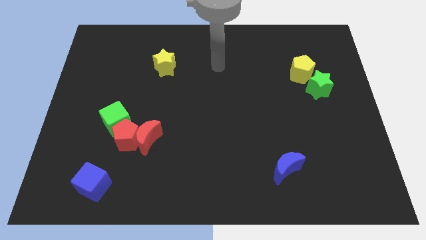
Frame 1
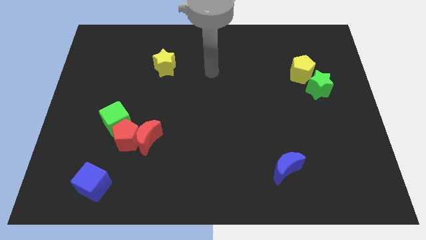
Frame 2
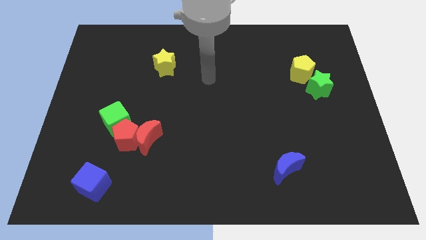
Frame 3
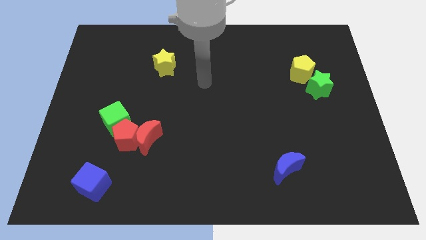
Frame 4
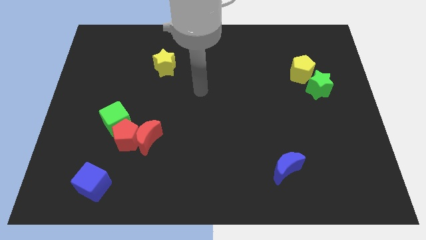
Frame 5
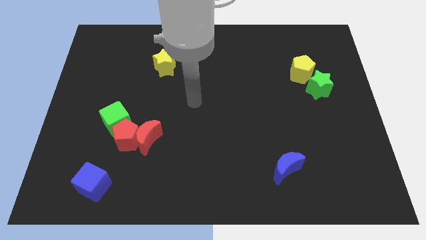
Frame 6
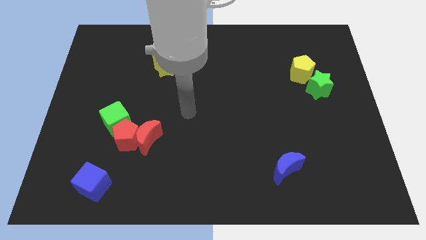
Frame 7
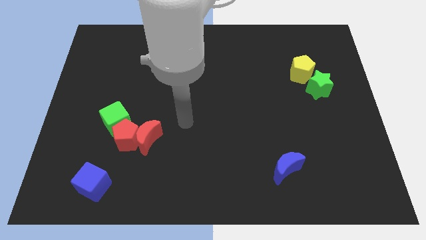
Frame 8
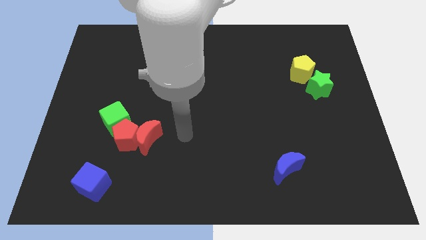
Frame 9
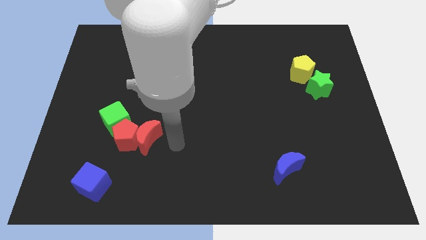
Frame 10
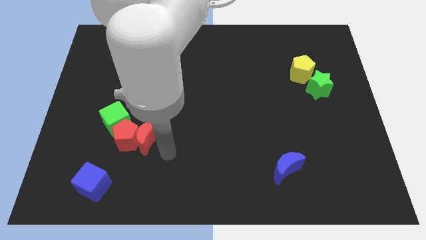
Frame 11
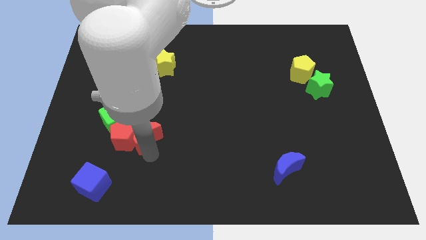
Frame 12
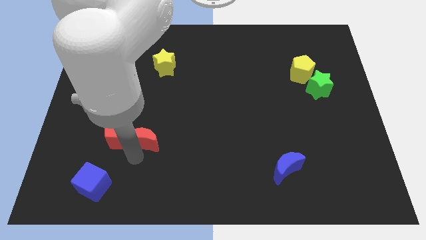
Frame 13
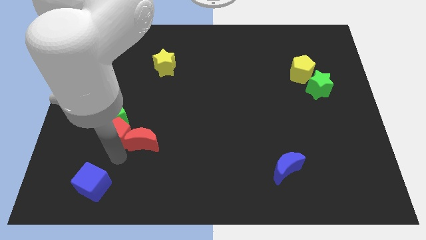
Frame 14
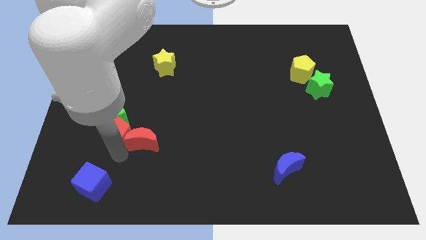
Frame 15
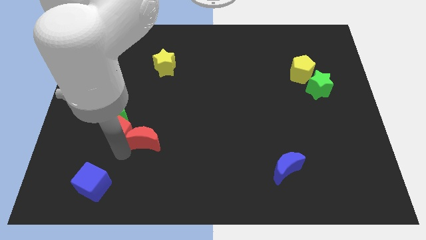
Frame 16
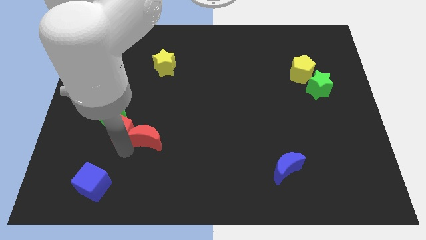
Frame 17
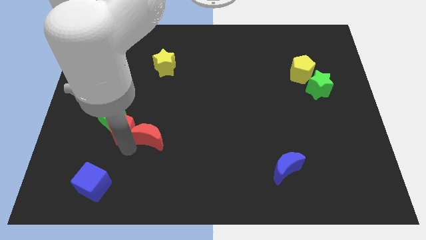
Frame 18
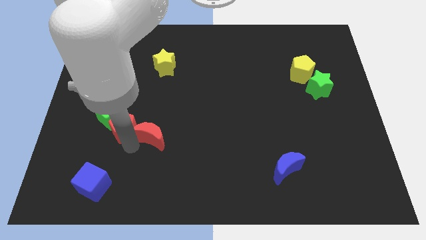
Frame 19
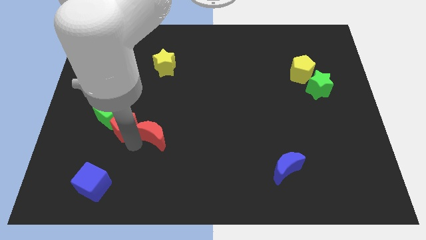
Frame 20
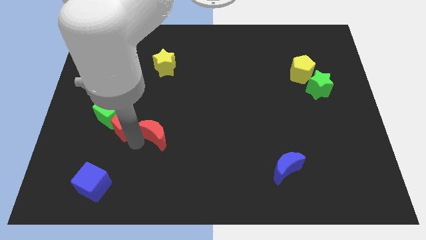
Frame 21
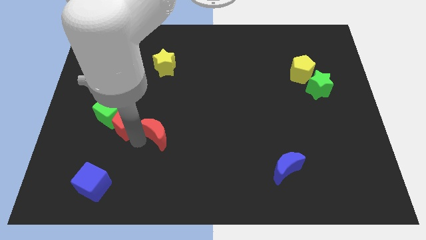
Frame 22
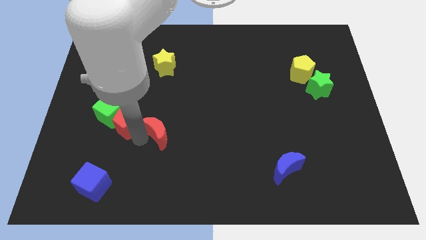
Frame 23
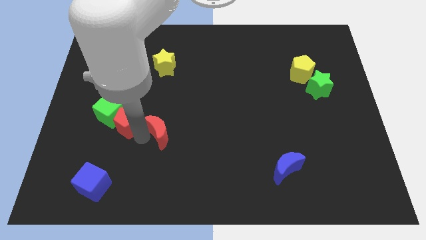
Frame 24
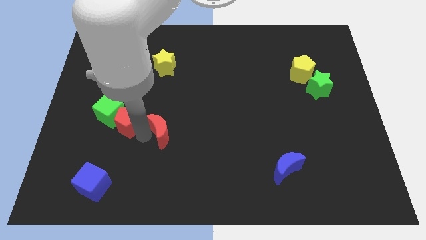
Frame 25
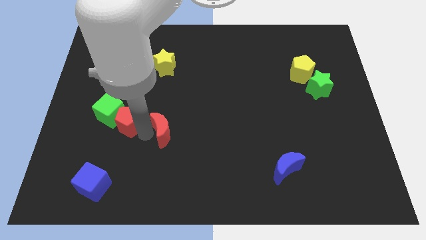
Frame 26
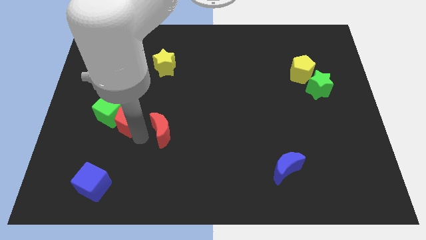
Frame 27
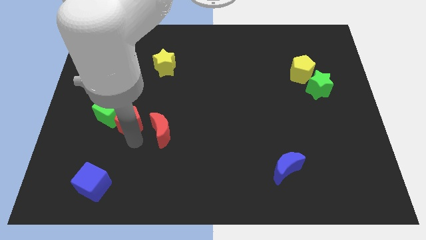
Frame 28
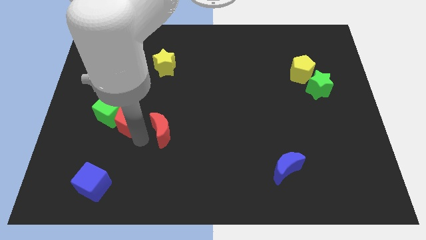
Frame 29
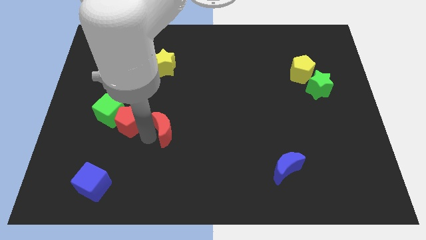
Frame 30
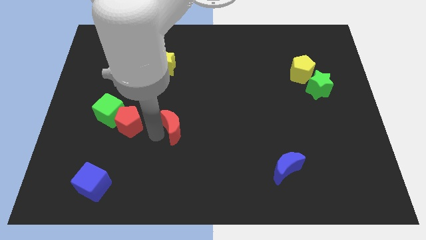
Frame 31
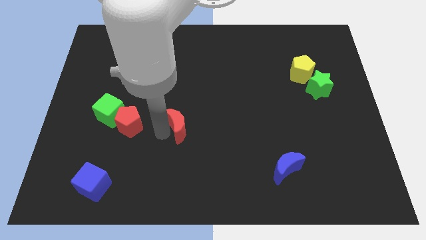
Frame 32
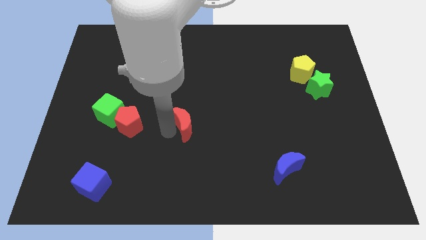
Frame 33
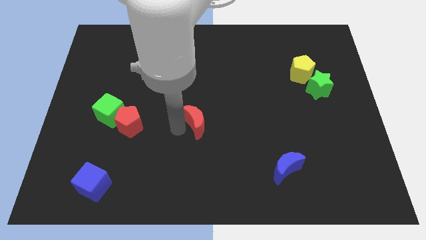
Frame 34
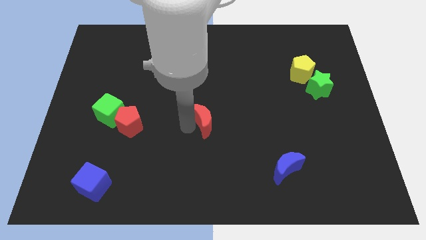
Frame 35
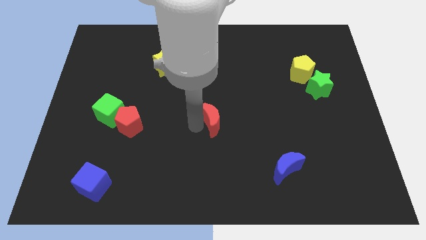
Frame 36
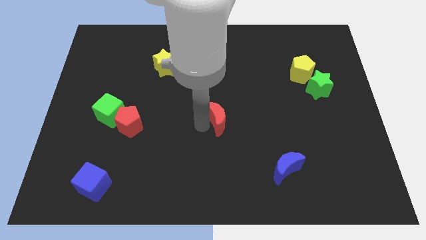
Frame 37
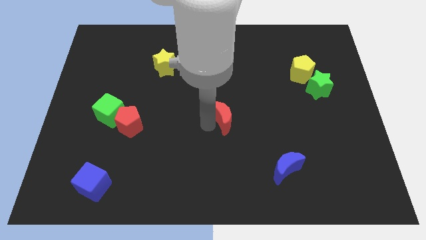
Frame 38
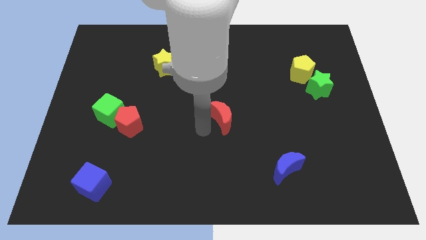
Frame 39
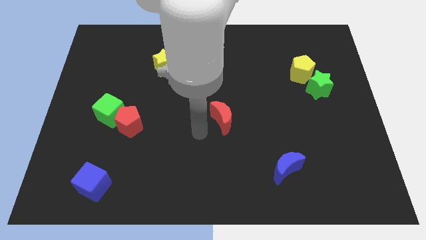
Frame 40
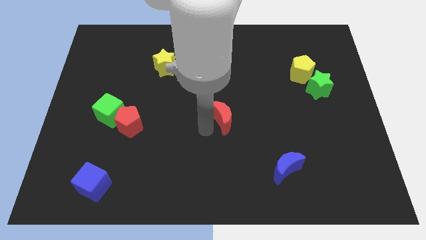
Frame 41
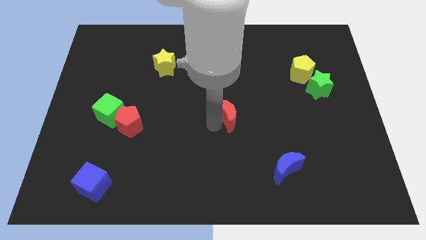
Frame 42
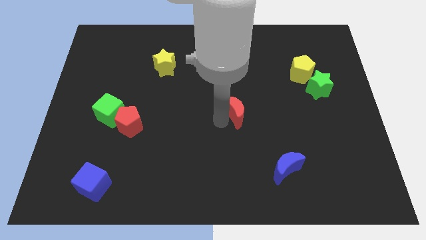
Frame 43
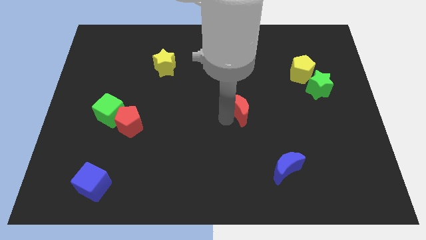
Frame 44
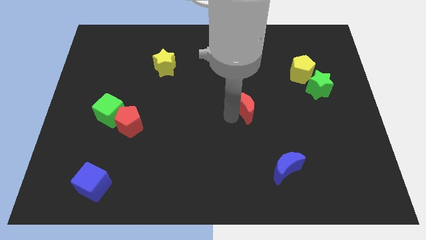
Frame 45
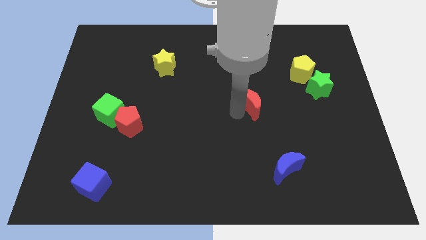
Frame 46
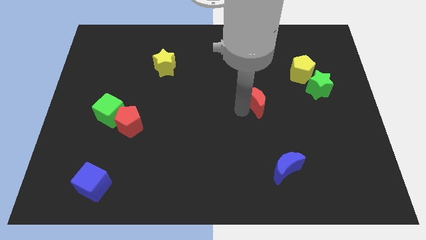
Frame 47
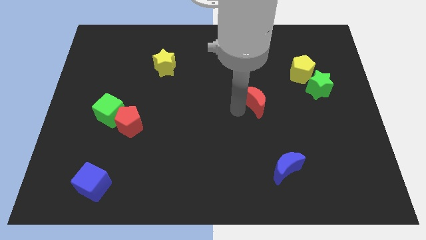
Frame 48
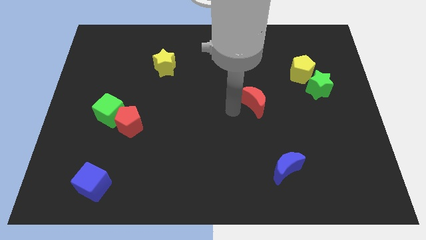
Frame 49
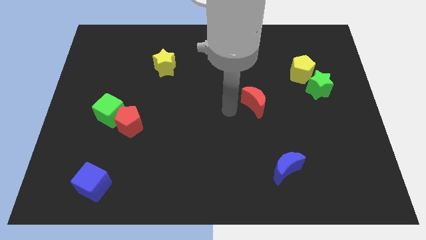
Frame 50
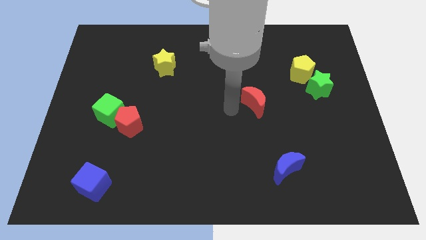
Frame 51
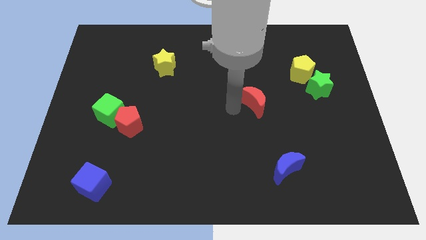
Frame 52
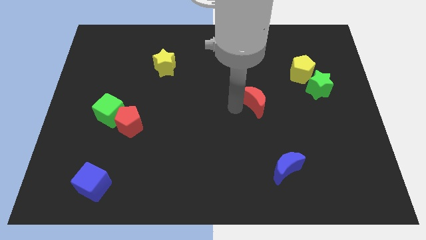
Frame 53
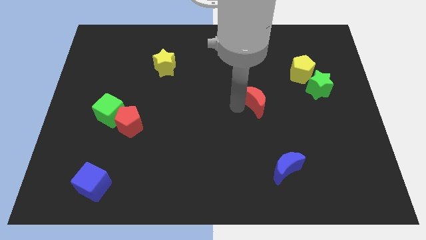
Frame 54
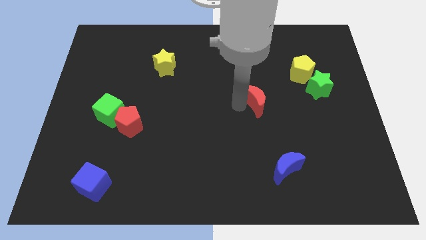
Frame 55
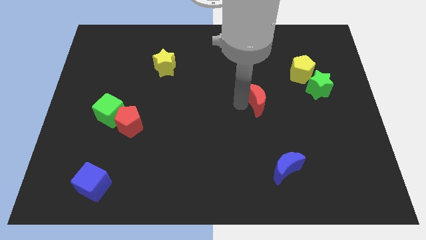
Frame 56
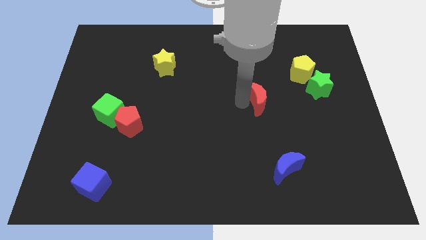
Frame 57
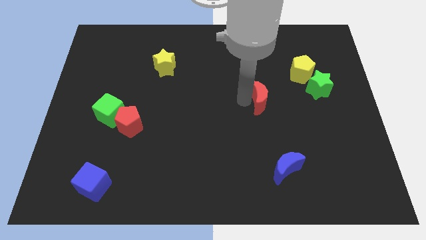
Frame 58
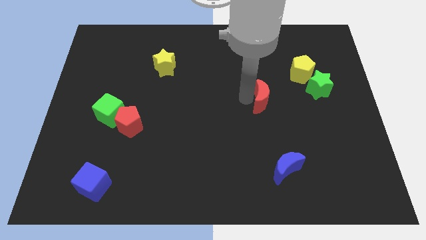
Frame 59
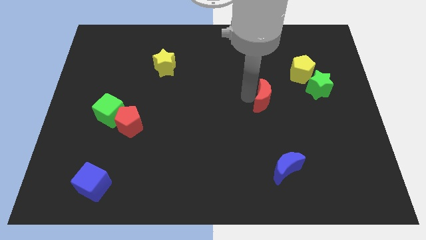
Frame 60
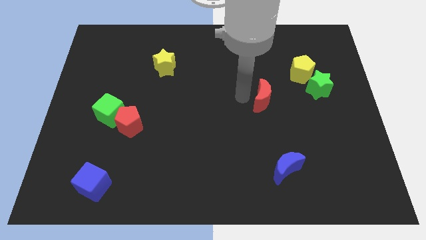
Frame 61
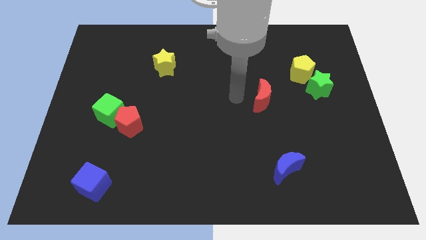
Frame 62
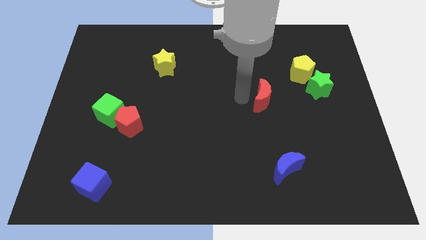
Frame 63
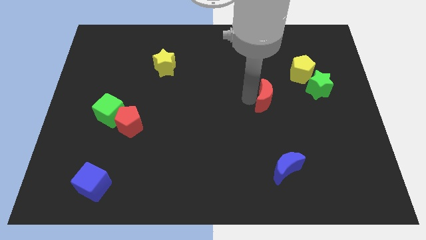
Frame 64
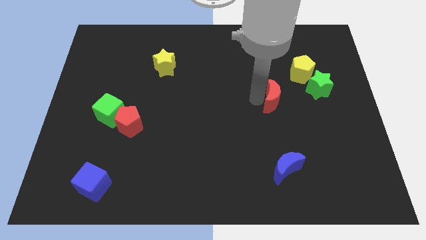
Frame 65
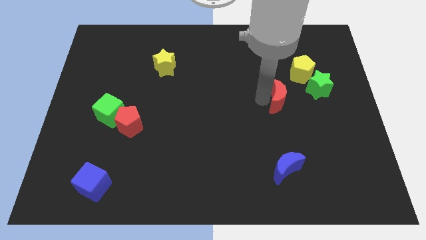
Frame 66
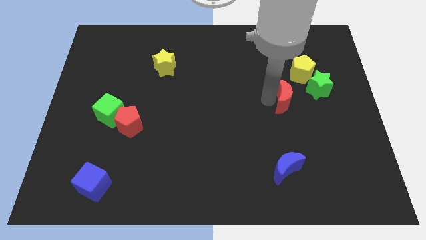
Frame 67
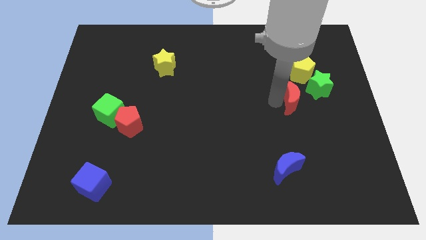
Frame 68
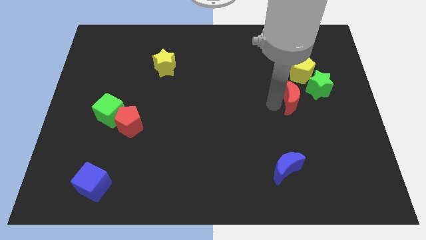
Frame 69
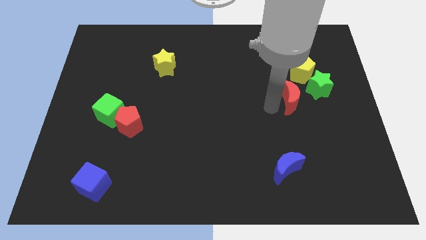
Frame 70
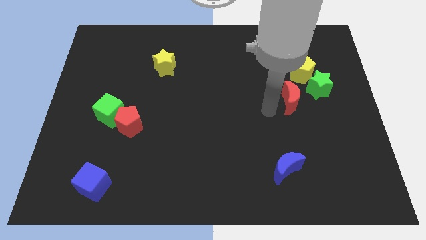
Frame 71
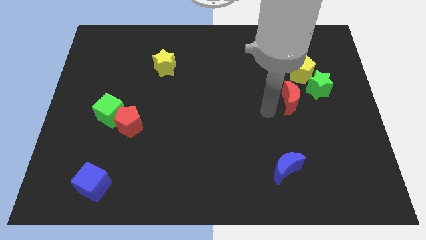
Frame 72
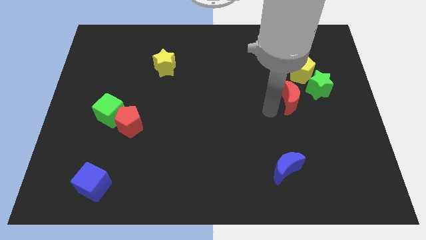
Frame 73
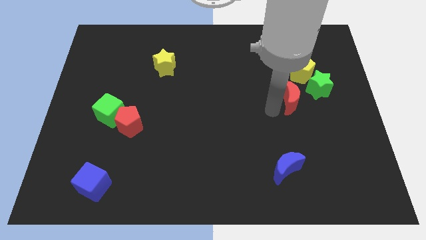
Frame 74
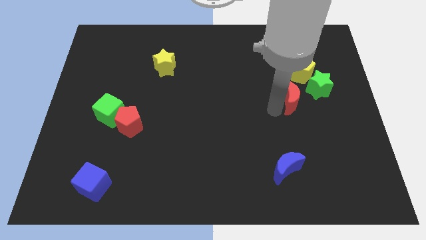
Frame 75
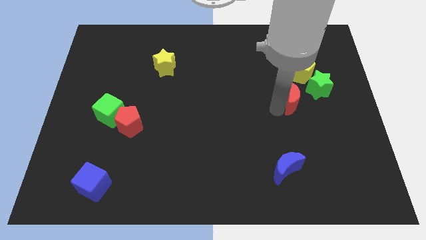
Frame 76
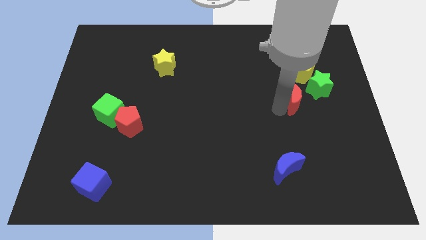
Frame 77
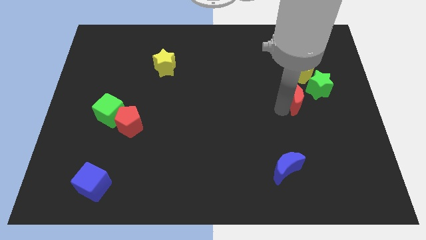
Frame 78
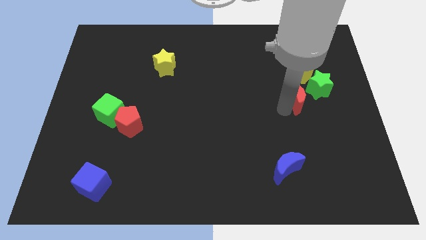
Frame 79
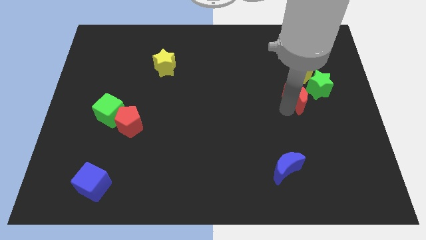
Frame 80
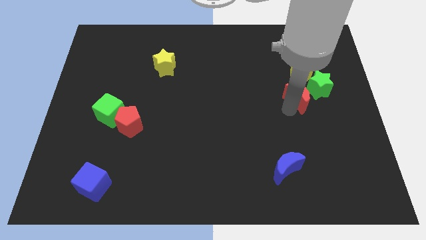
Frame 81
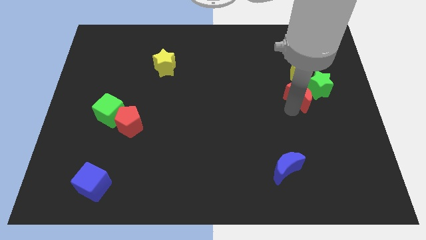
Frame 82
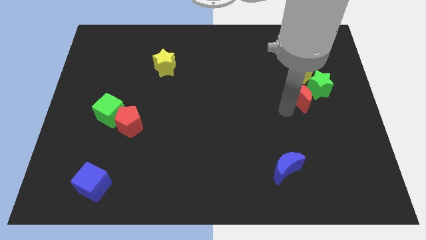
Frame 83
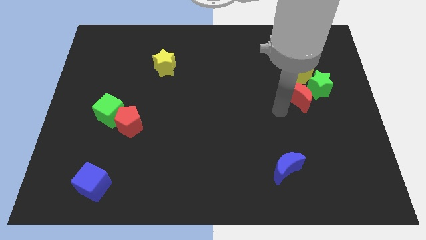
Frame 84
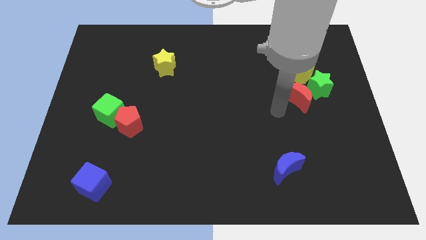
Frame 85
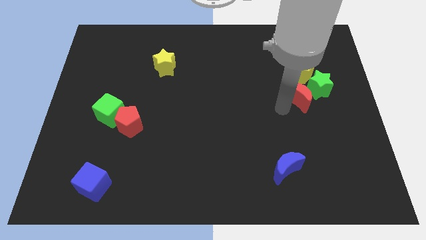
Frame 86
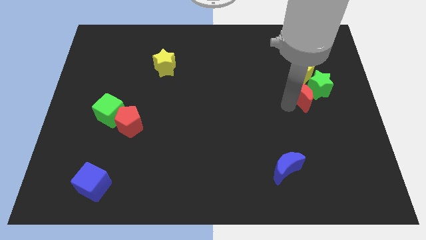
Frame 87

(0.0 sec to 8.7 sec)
put the red moon next to the green star
